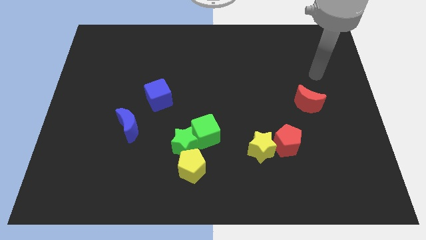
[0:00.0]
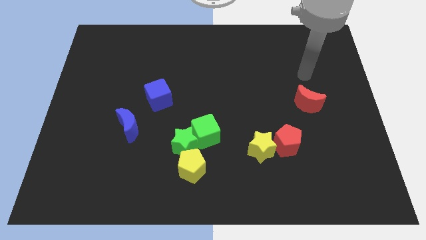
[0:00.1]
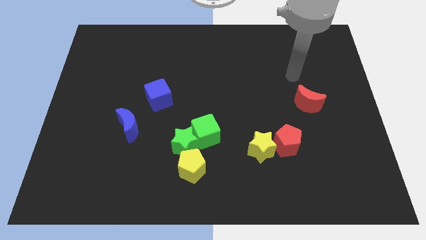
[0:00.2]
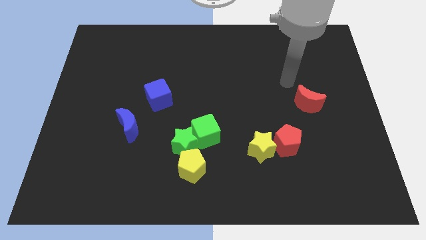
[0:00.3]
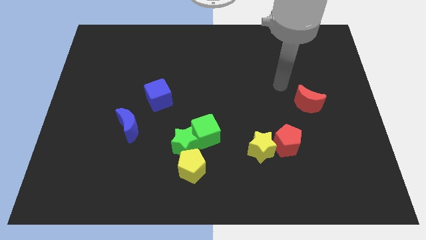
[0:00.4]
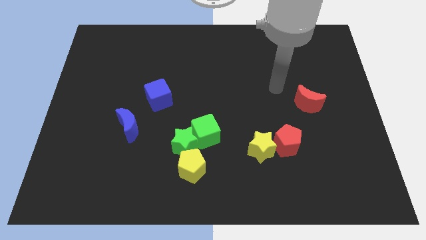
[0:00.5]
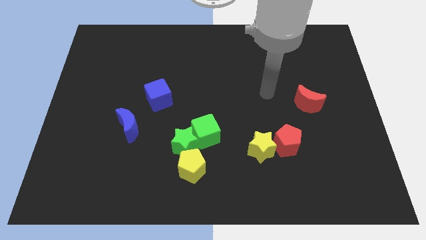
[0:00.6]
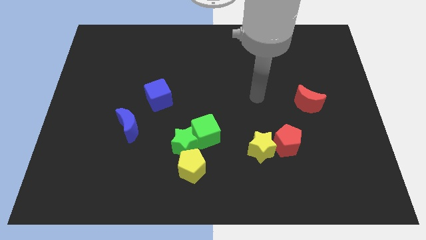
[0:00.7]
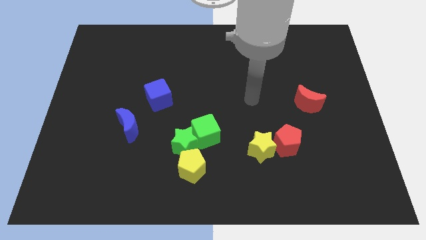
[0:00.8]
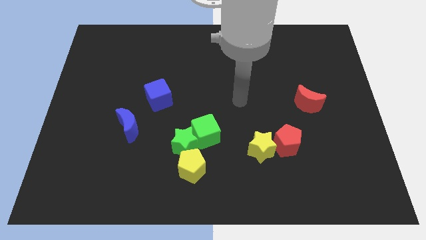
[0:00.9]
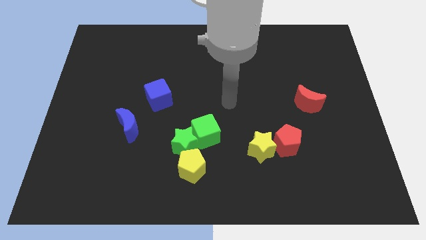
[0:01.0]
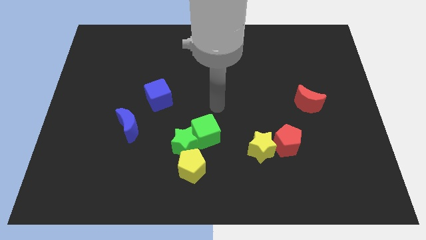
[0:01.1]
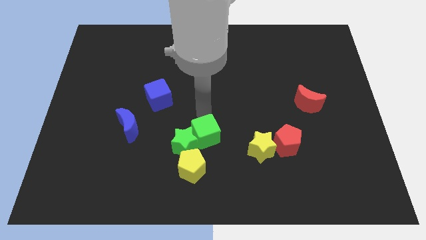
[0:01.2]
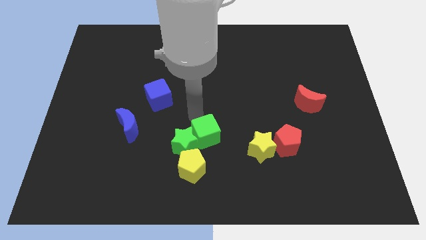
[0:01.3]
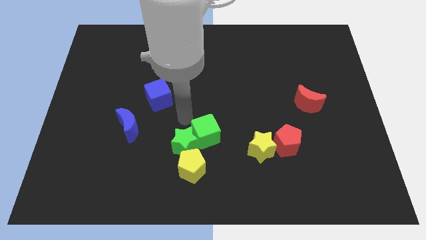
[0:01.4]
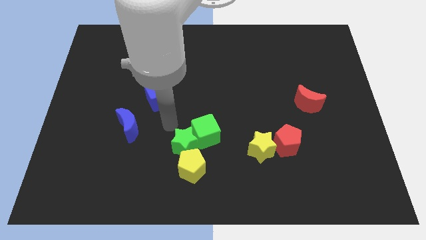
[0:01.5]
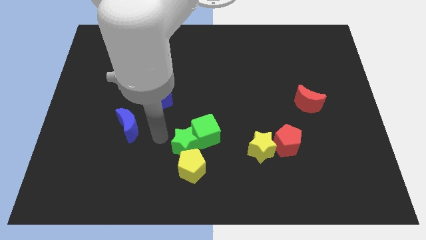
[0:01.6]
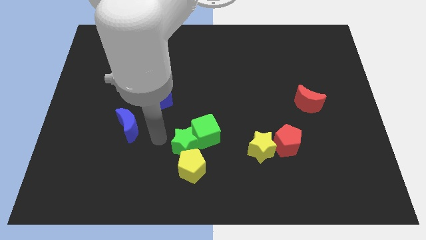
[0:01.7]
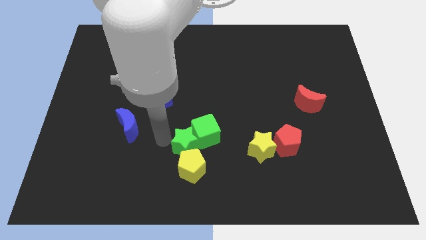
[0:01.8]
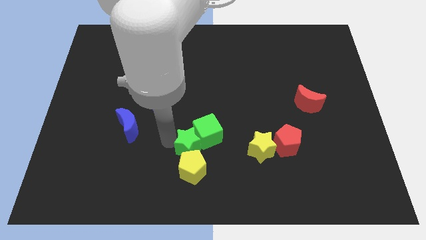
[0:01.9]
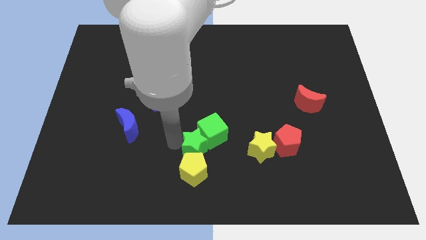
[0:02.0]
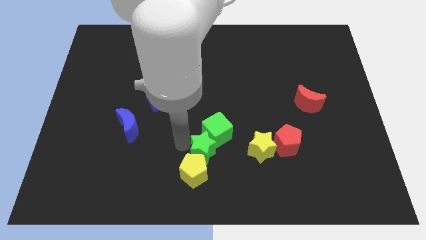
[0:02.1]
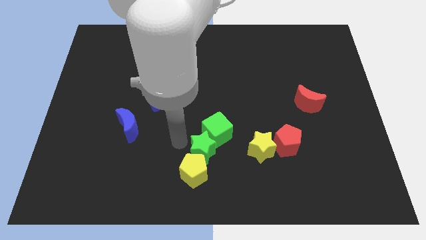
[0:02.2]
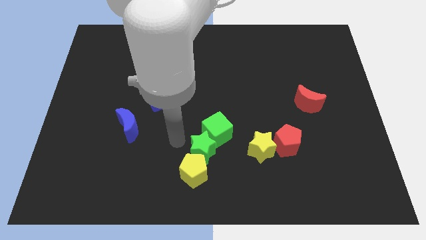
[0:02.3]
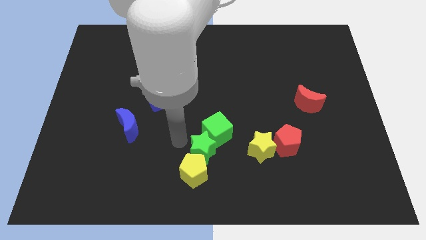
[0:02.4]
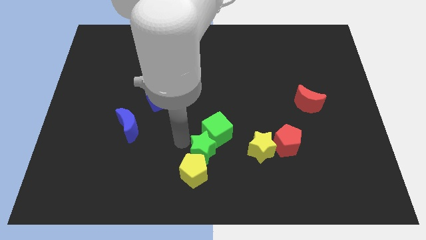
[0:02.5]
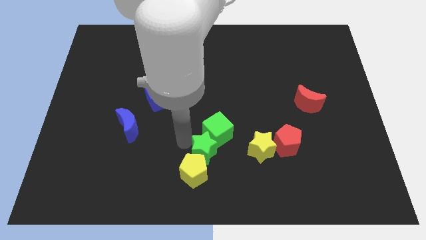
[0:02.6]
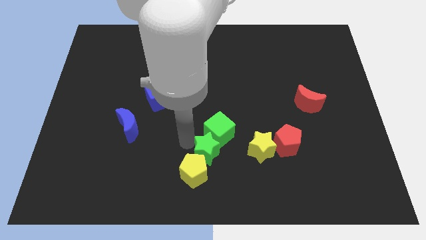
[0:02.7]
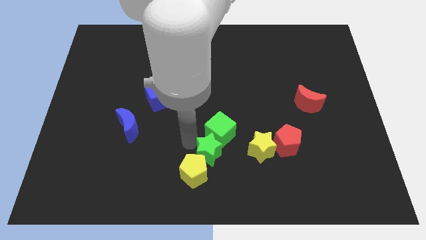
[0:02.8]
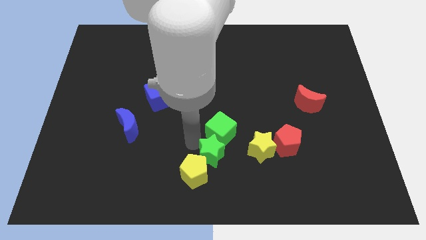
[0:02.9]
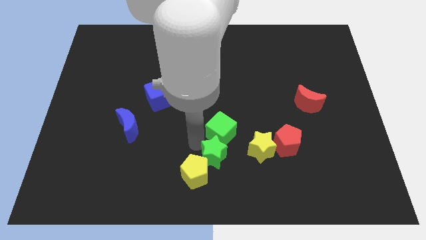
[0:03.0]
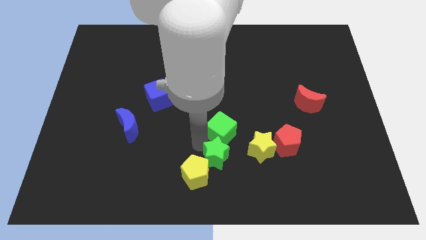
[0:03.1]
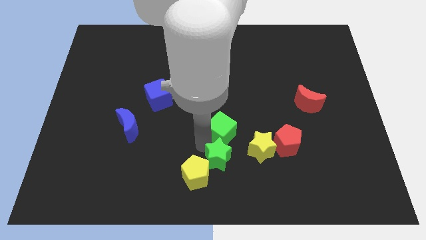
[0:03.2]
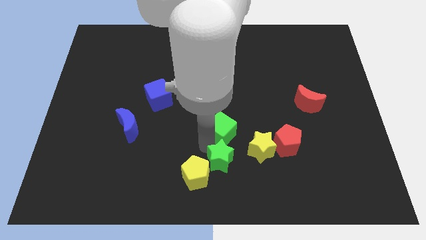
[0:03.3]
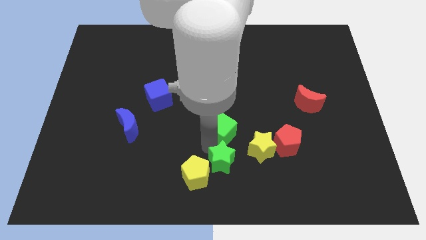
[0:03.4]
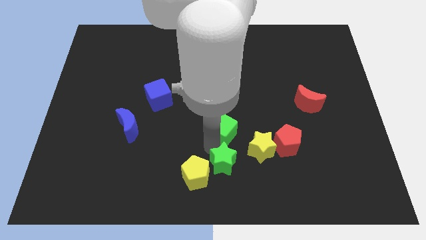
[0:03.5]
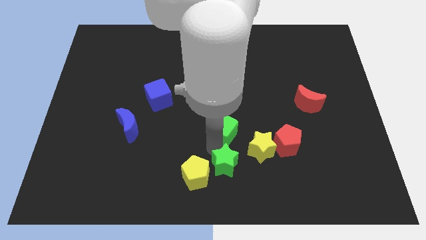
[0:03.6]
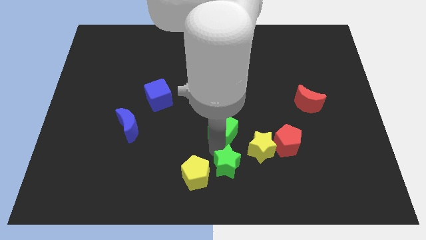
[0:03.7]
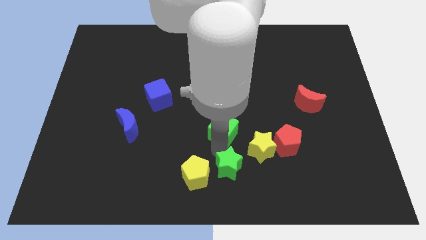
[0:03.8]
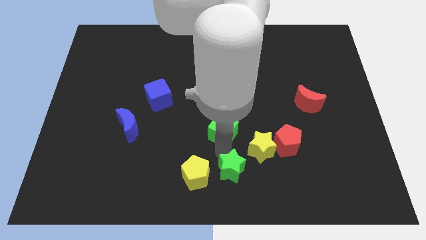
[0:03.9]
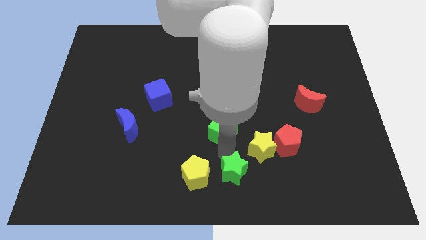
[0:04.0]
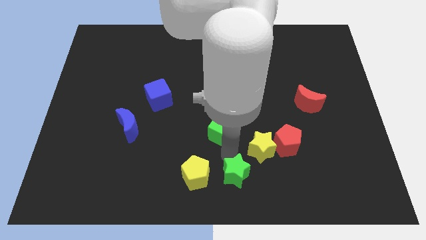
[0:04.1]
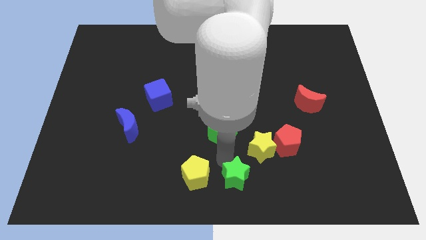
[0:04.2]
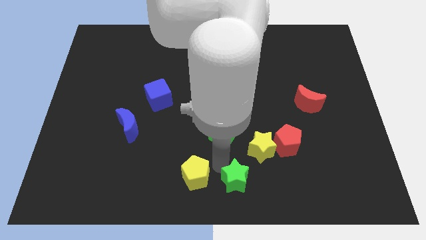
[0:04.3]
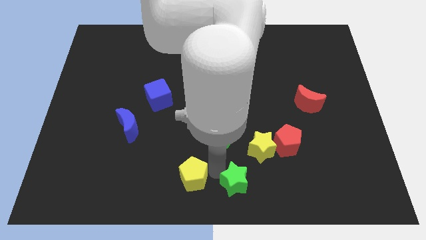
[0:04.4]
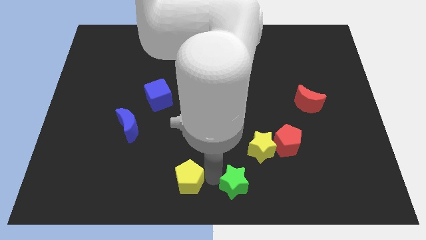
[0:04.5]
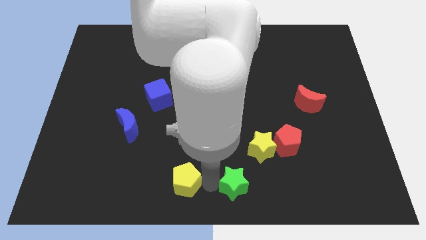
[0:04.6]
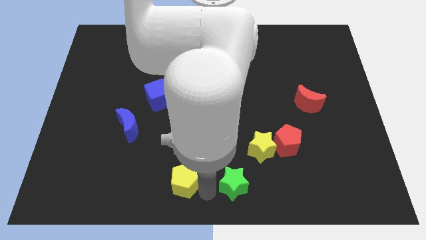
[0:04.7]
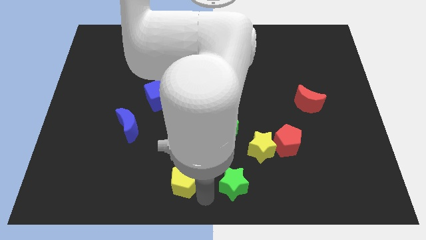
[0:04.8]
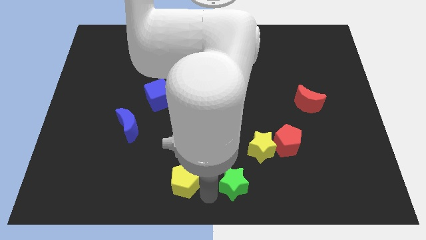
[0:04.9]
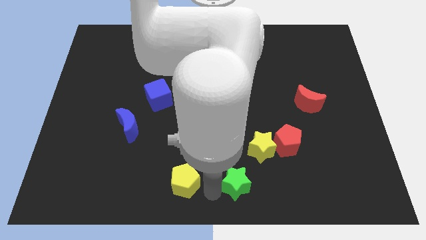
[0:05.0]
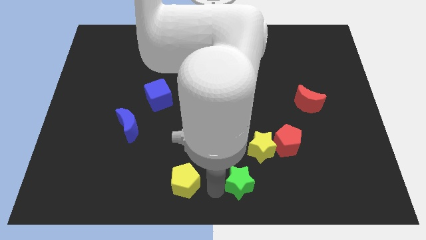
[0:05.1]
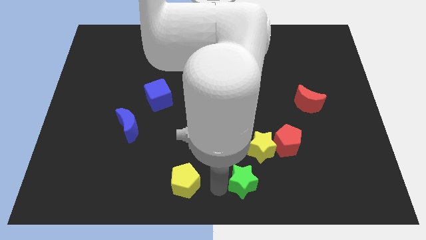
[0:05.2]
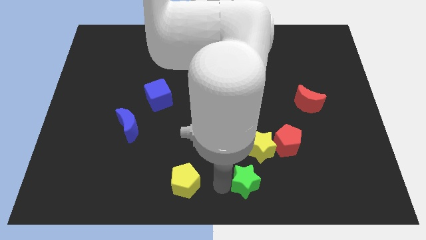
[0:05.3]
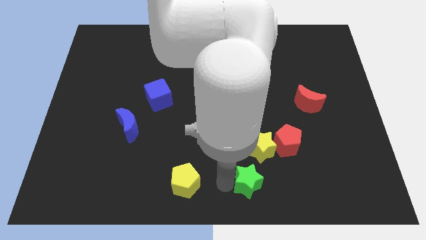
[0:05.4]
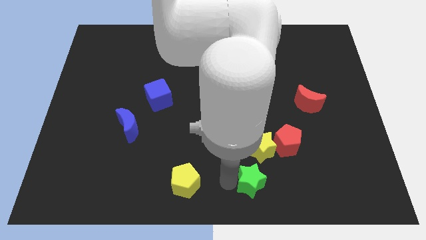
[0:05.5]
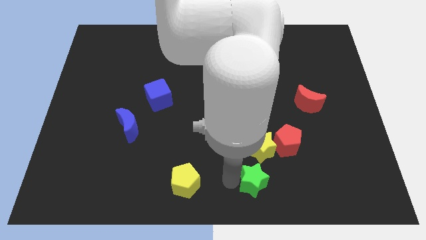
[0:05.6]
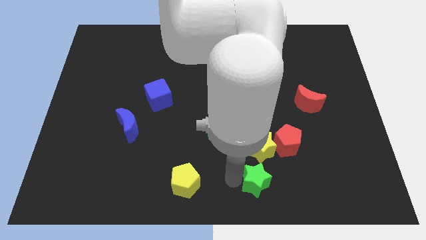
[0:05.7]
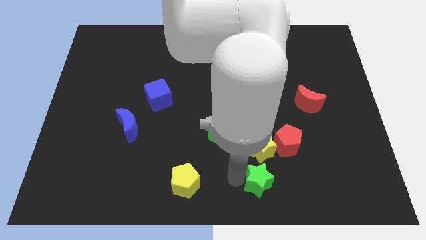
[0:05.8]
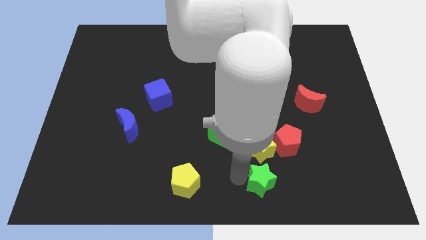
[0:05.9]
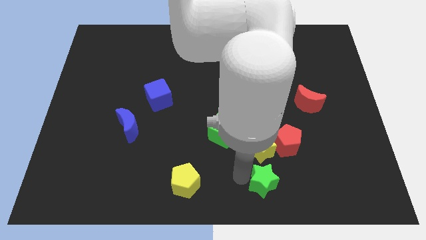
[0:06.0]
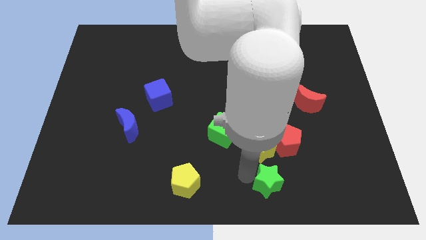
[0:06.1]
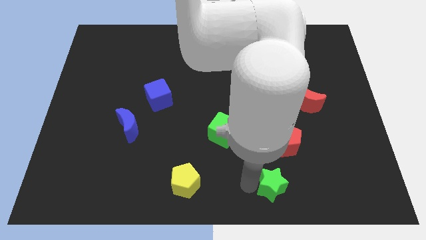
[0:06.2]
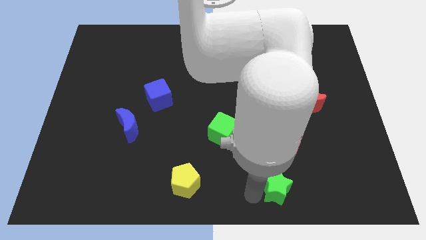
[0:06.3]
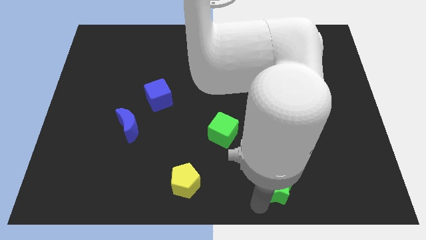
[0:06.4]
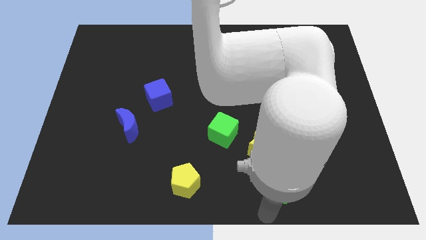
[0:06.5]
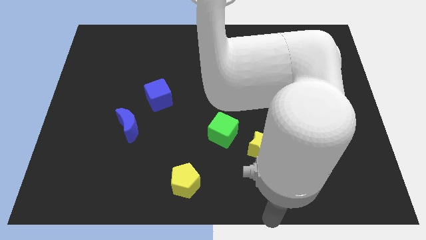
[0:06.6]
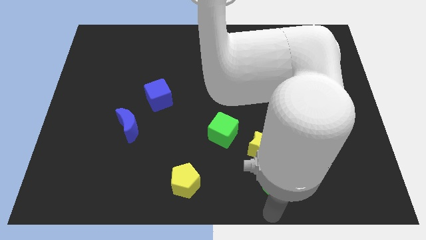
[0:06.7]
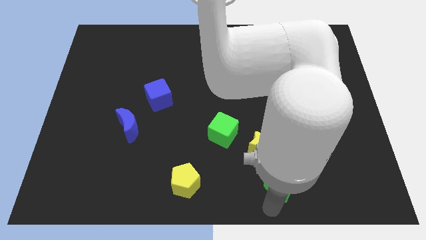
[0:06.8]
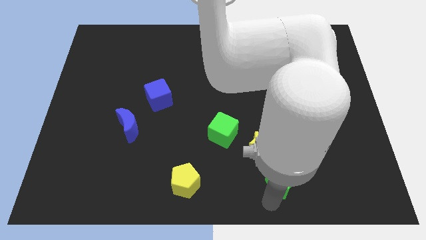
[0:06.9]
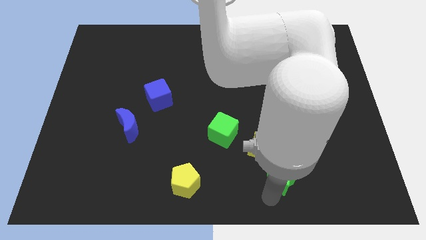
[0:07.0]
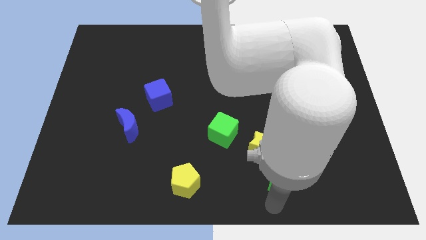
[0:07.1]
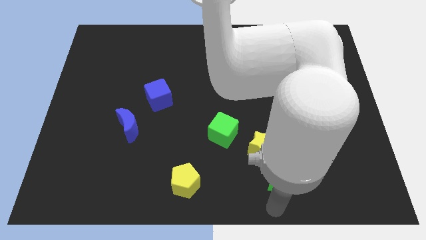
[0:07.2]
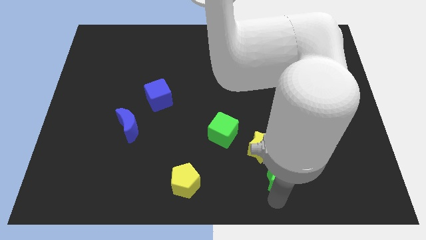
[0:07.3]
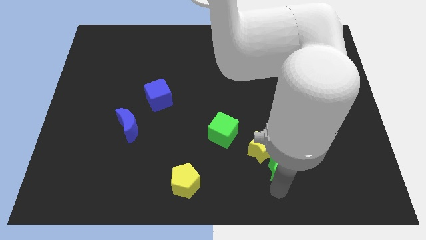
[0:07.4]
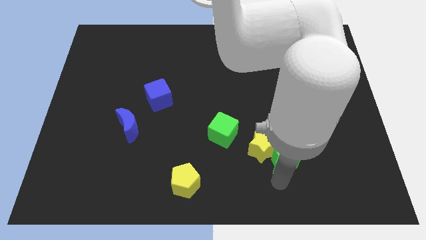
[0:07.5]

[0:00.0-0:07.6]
slide the green star to the red pentagon
